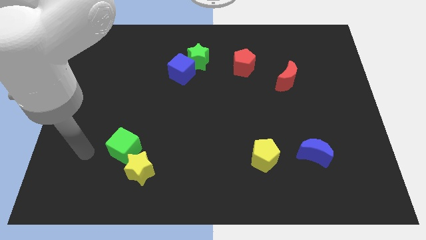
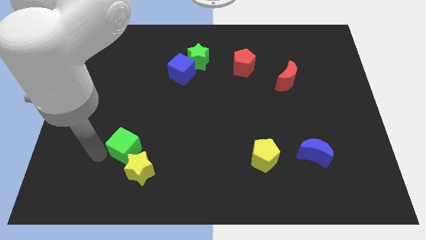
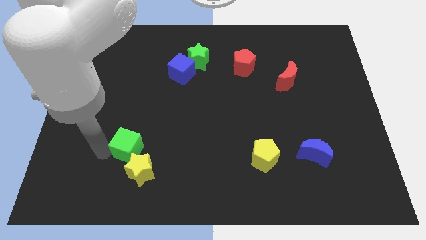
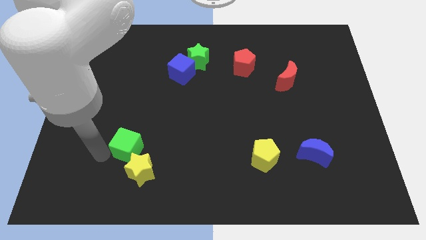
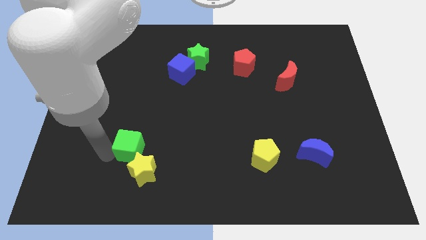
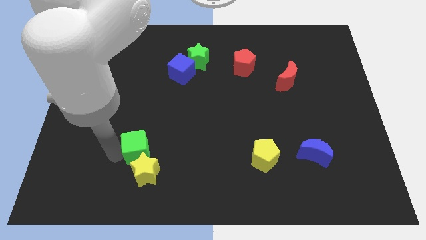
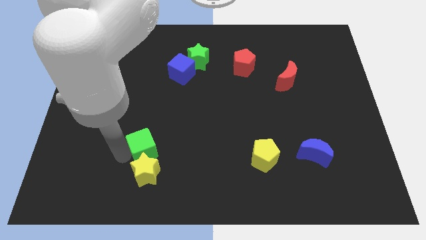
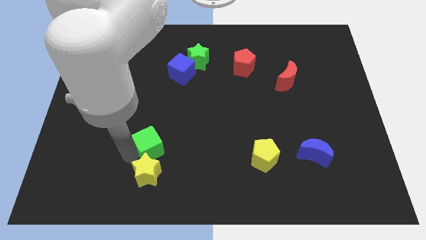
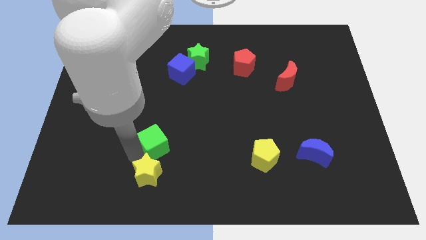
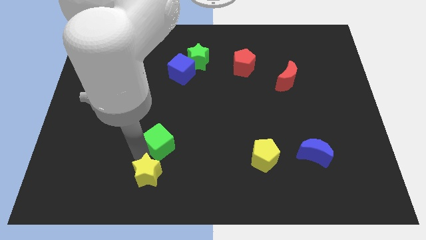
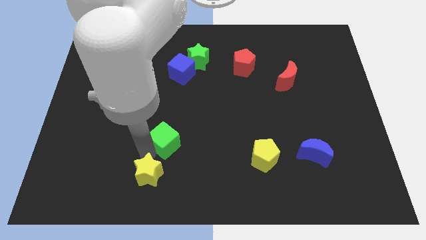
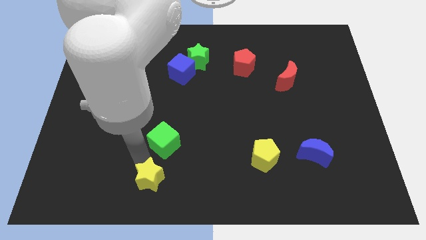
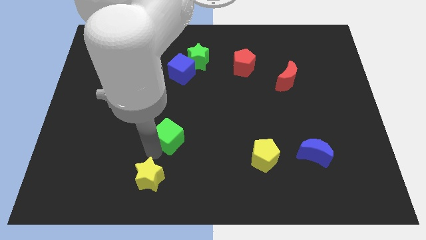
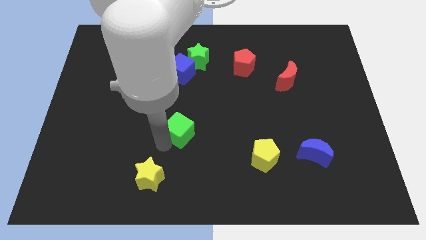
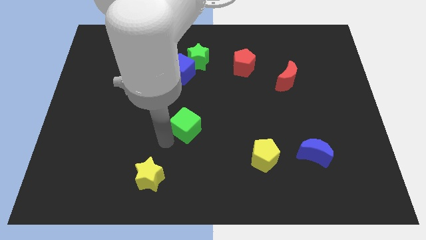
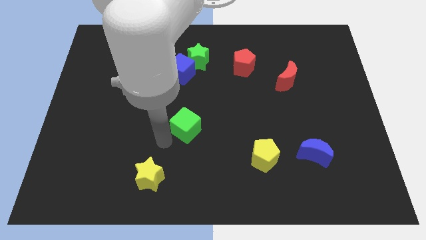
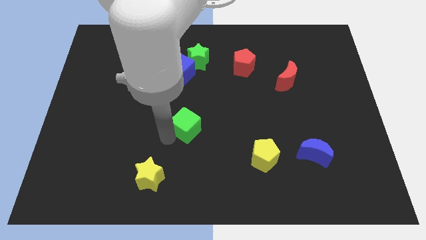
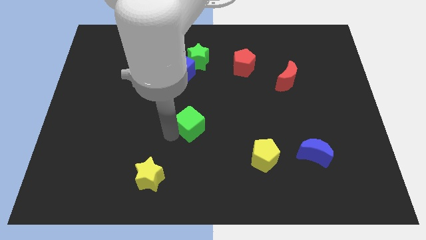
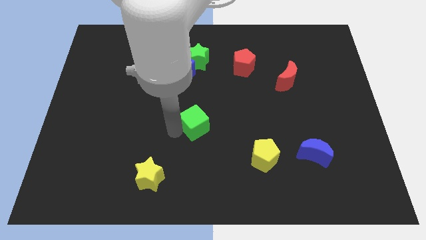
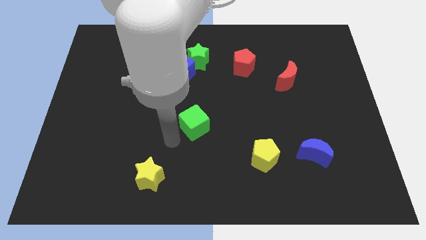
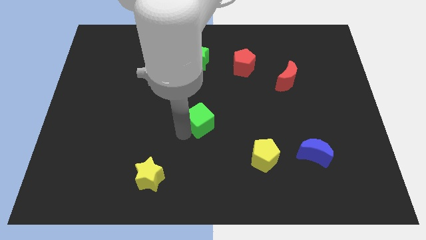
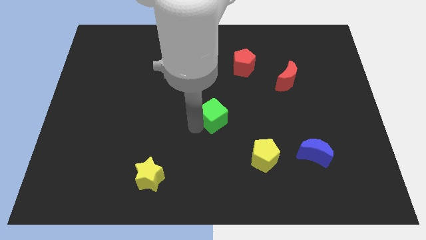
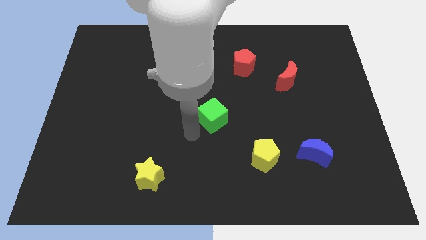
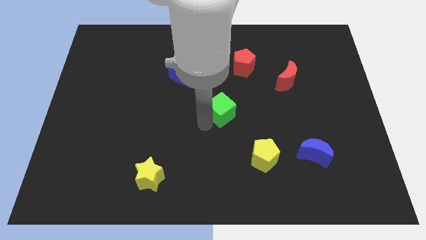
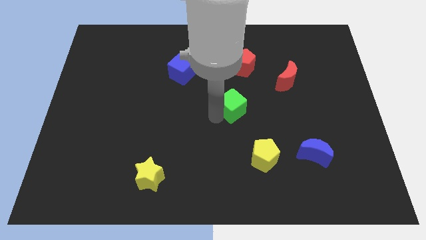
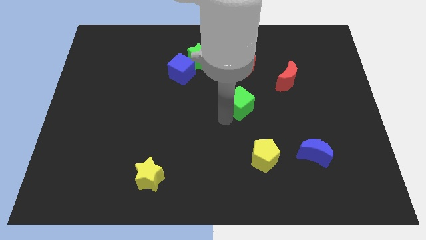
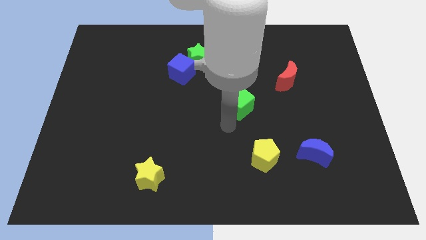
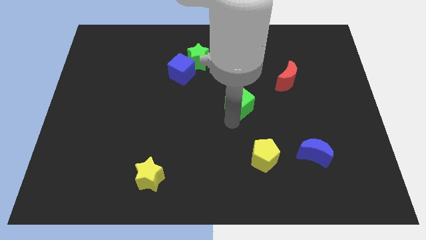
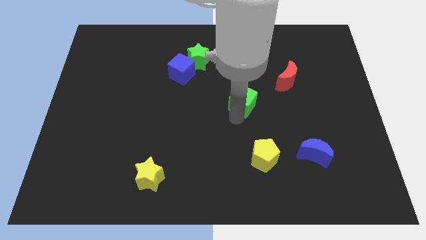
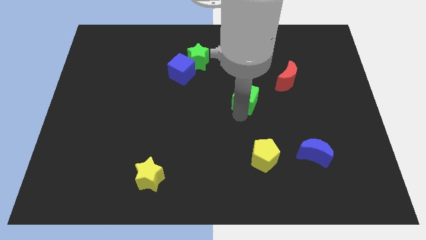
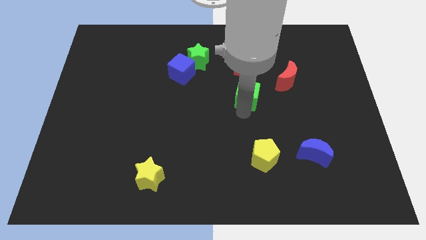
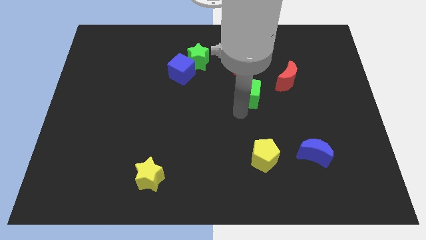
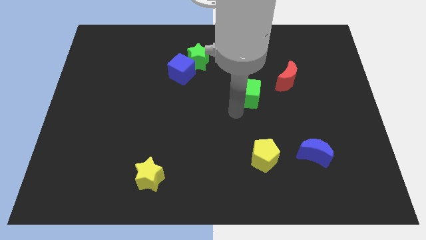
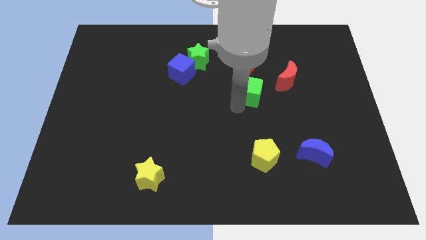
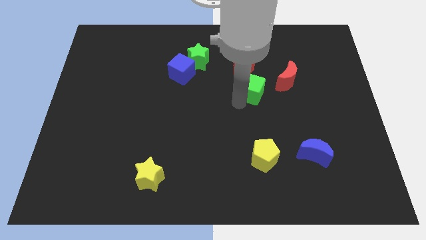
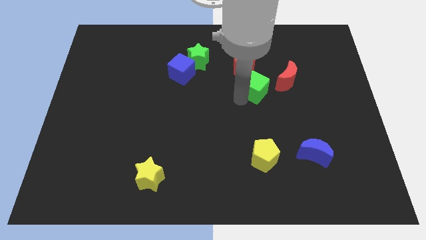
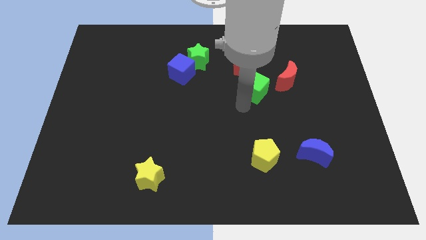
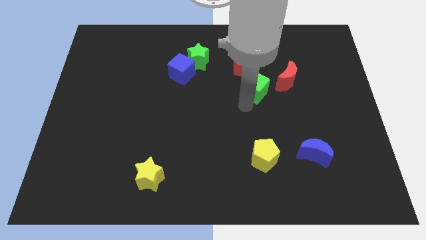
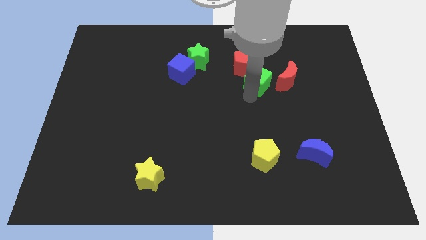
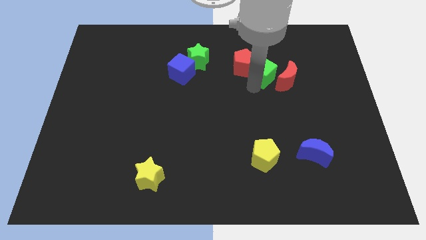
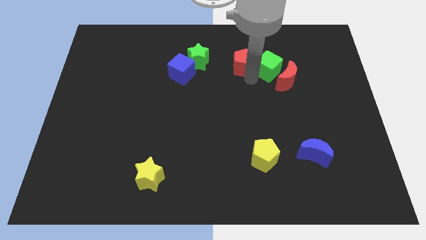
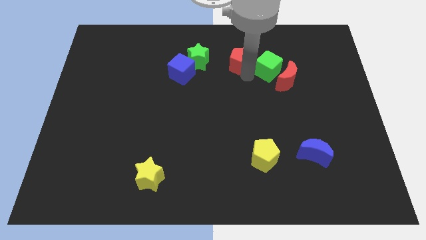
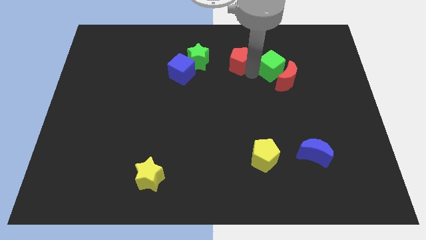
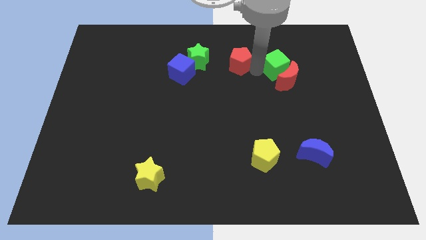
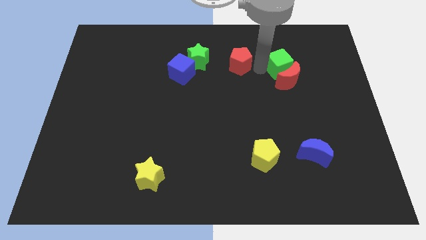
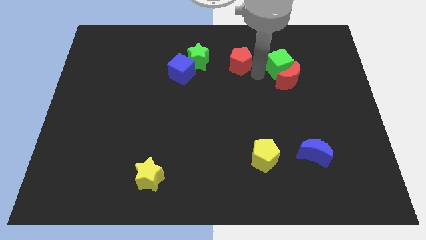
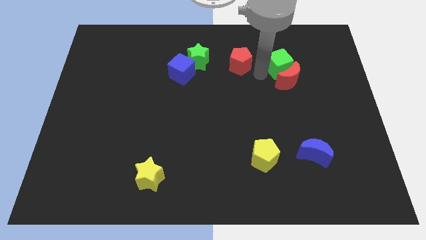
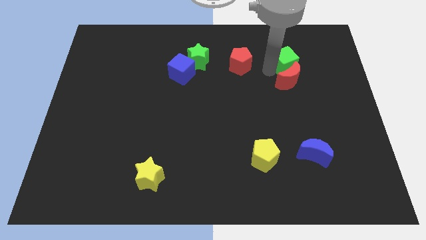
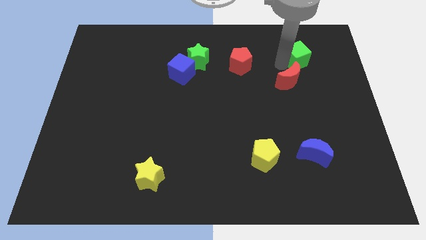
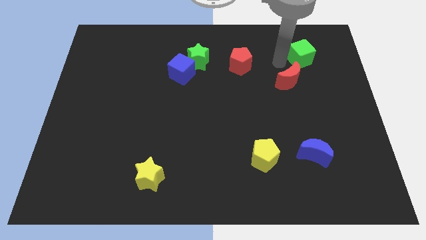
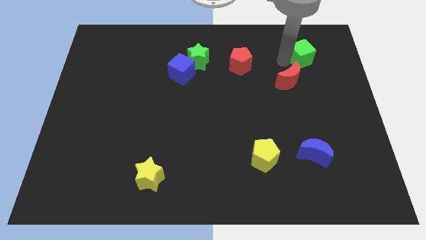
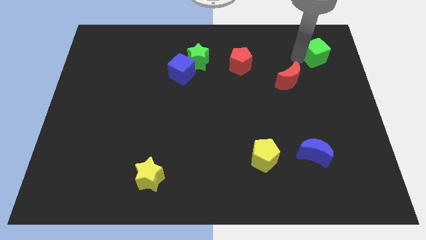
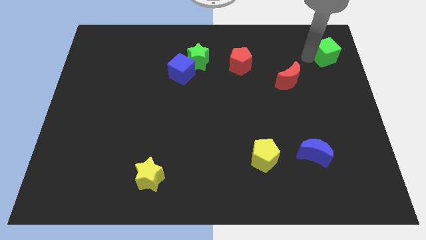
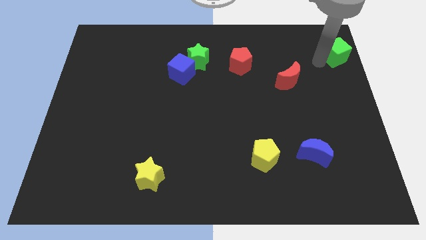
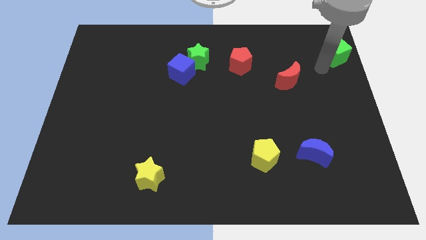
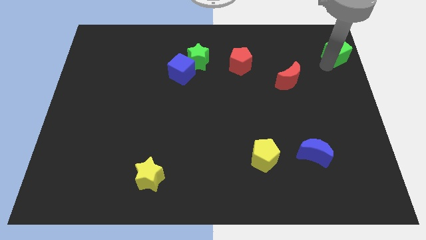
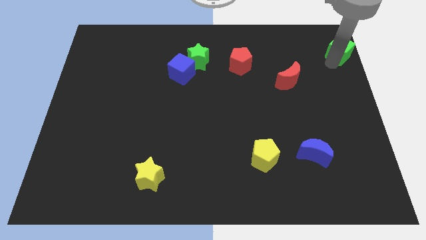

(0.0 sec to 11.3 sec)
move the green cube to the top right

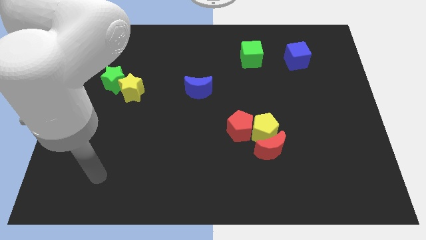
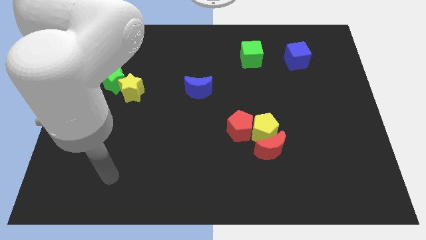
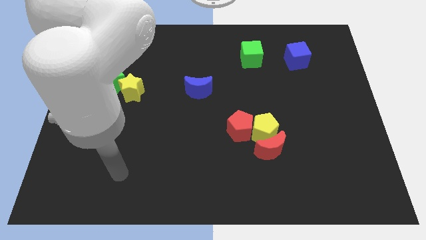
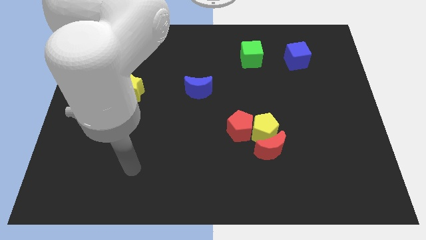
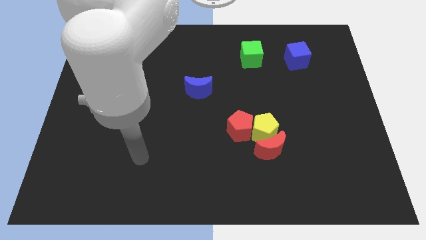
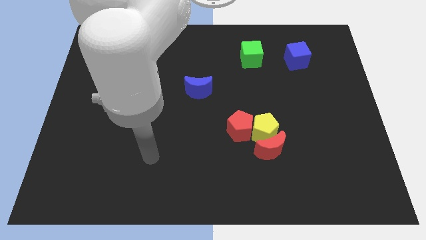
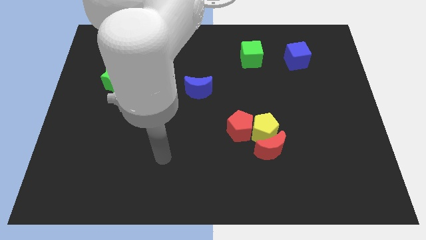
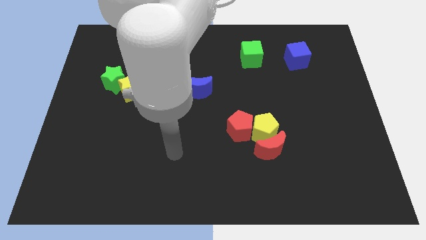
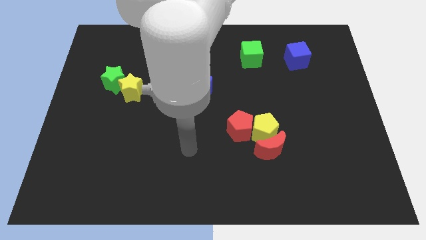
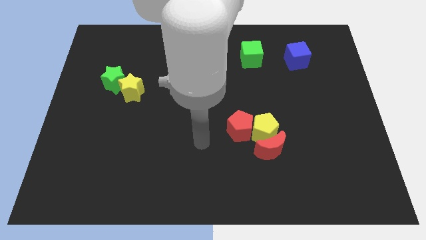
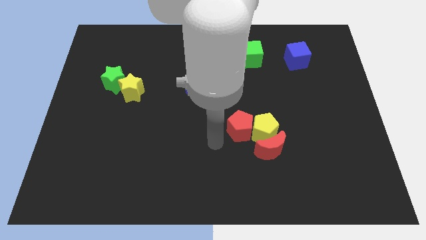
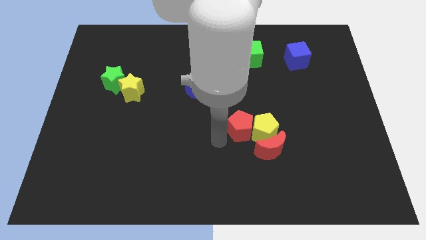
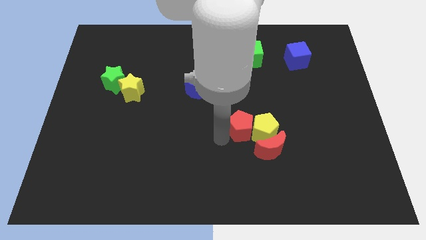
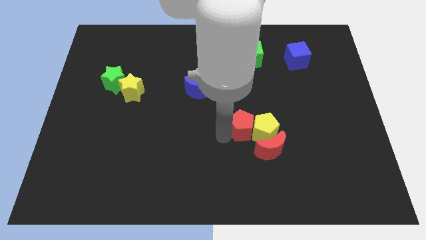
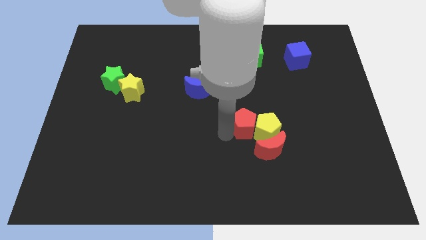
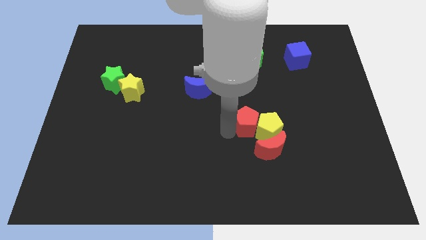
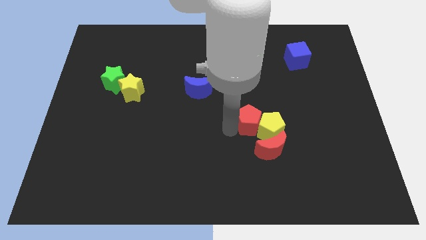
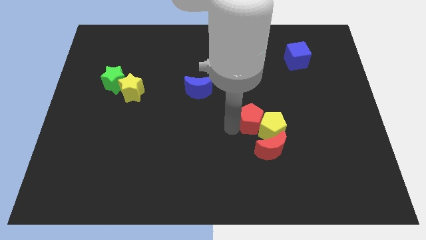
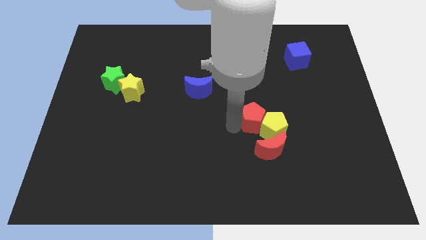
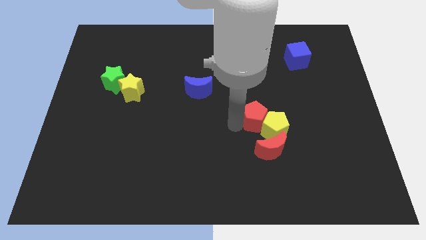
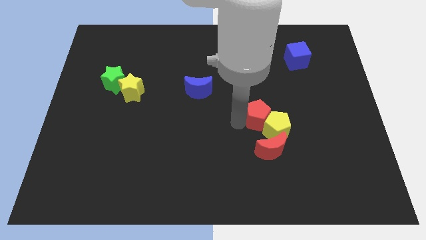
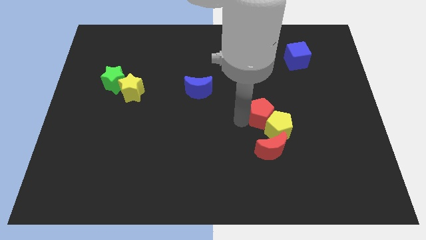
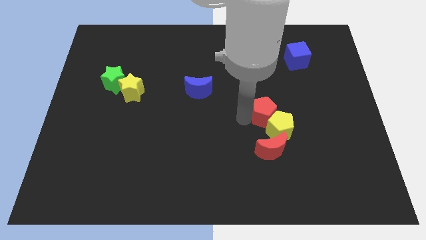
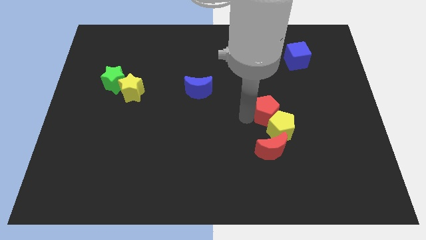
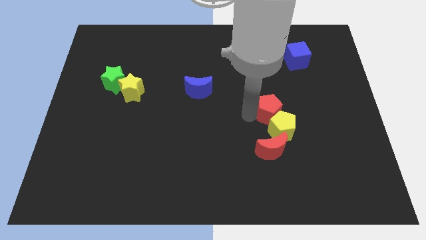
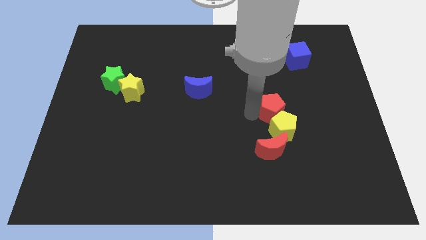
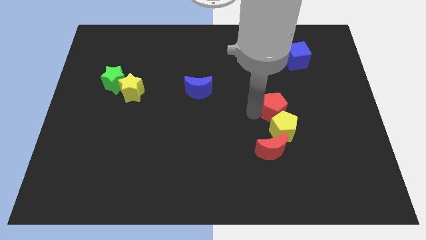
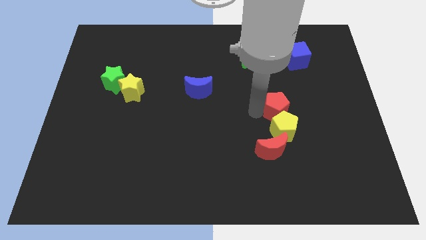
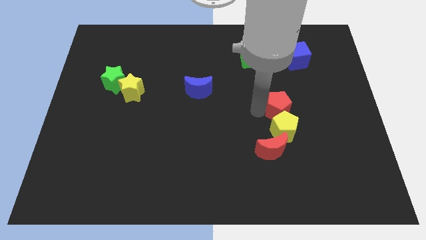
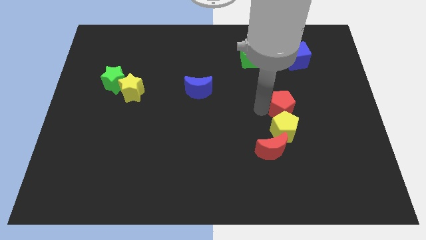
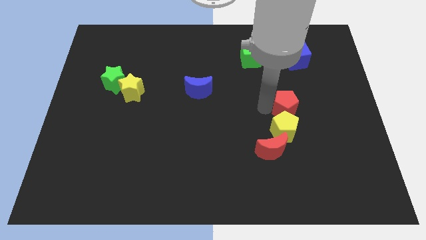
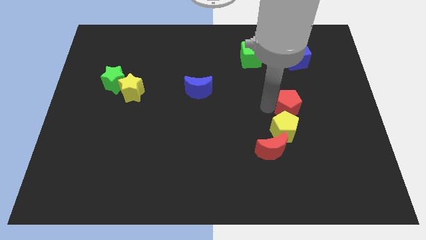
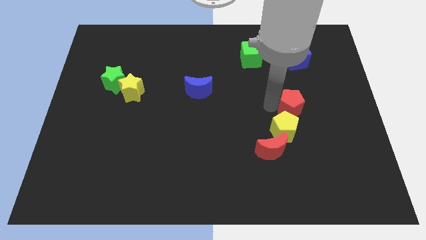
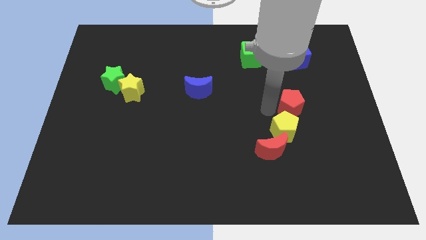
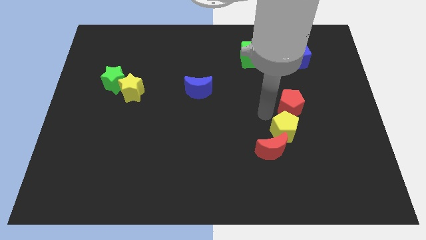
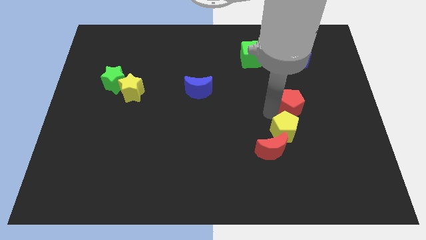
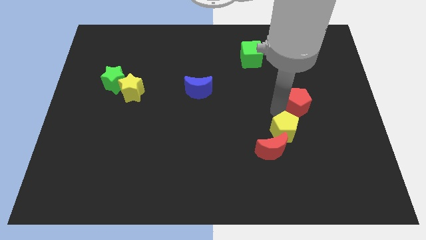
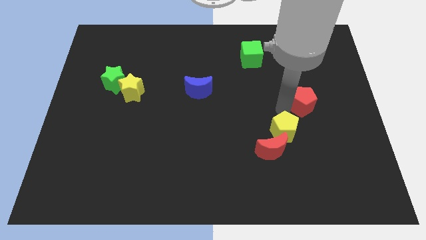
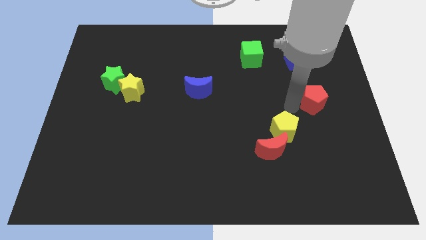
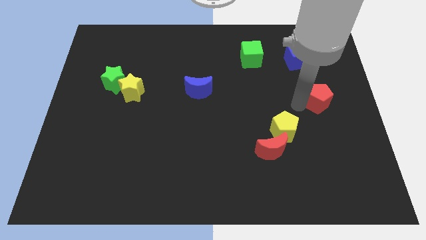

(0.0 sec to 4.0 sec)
slide the red pentagon to the center right
